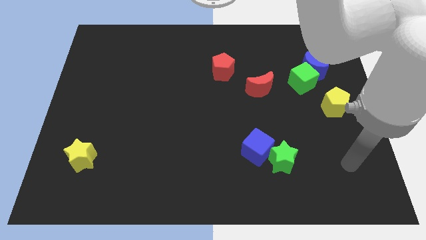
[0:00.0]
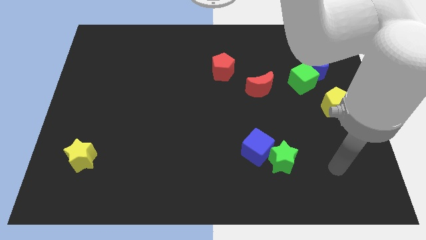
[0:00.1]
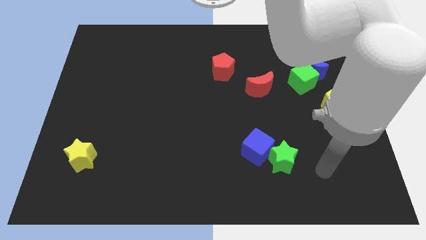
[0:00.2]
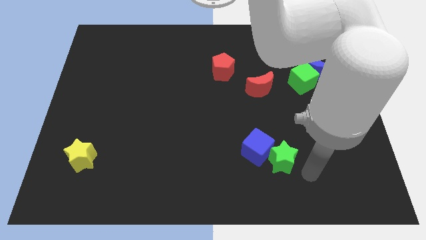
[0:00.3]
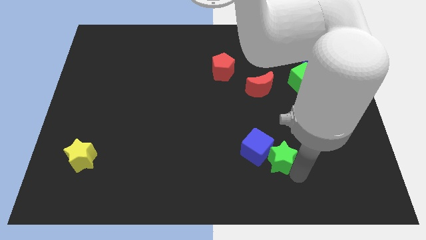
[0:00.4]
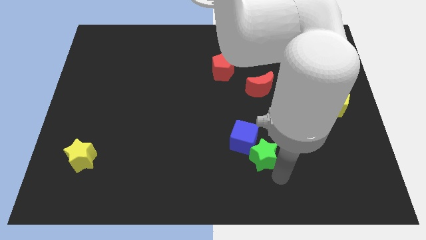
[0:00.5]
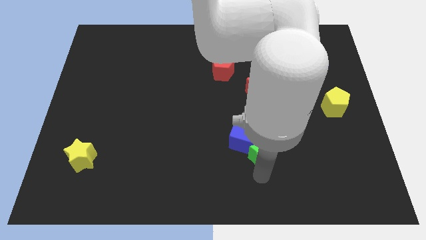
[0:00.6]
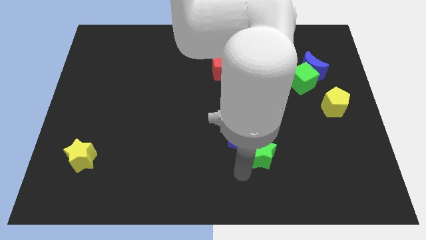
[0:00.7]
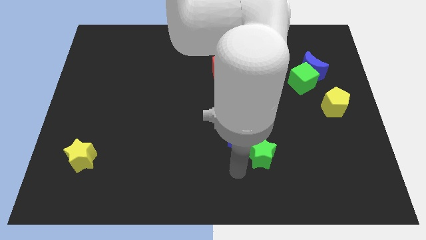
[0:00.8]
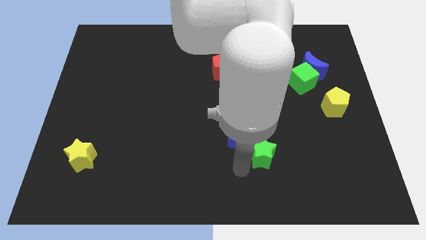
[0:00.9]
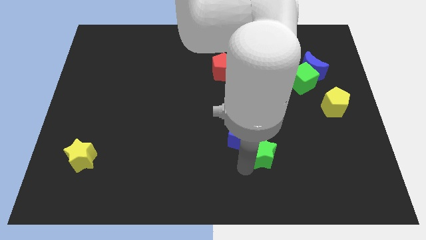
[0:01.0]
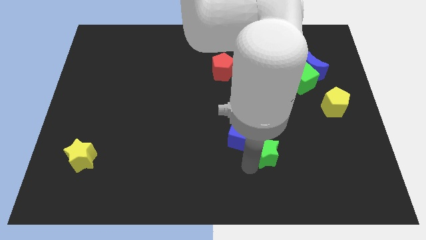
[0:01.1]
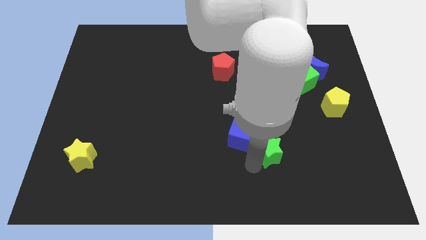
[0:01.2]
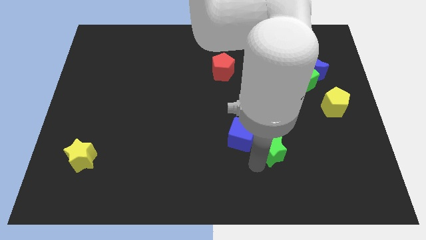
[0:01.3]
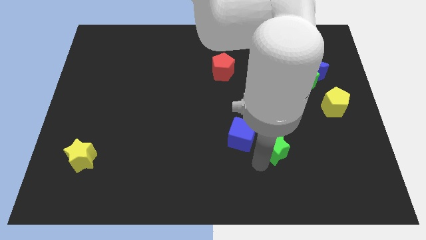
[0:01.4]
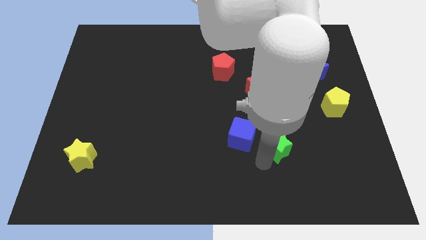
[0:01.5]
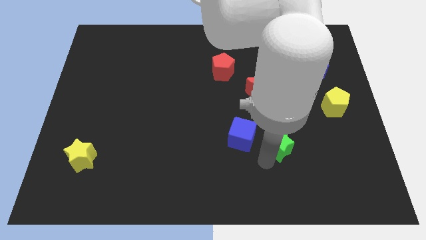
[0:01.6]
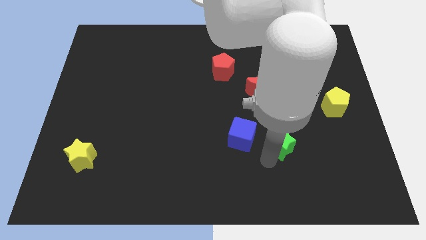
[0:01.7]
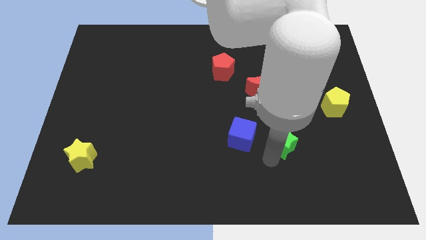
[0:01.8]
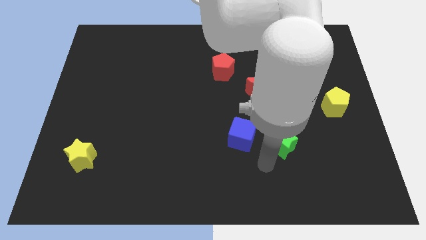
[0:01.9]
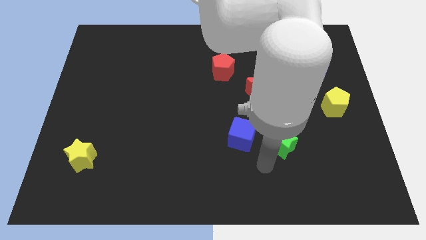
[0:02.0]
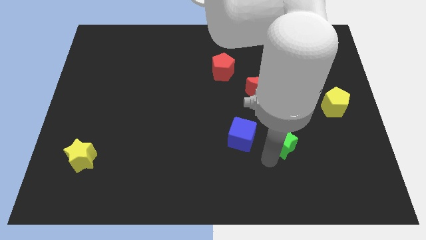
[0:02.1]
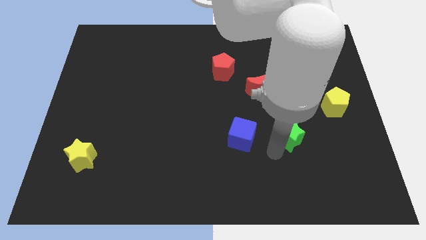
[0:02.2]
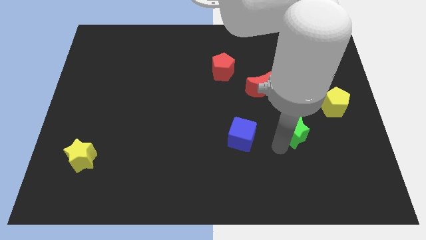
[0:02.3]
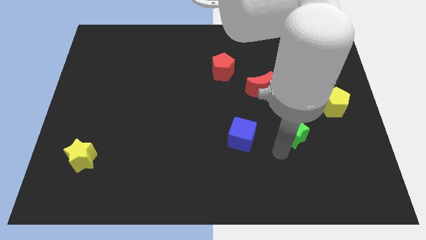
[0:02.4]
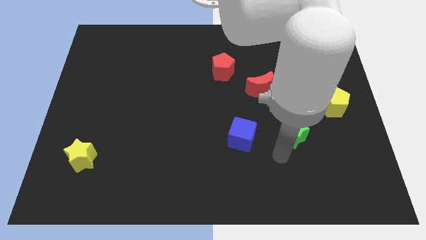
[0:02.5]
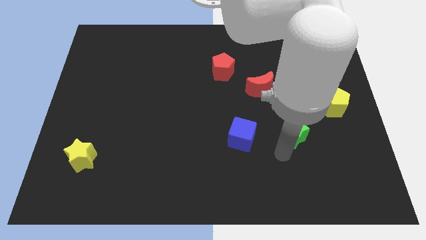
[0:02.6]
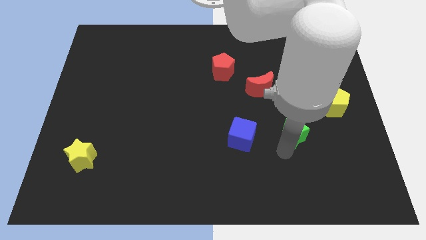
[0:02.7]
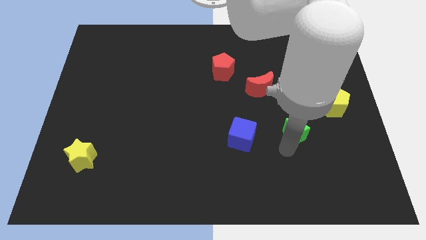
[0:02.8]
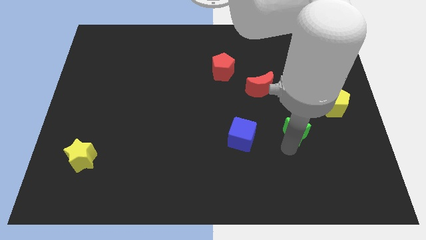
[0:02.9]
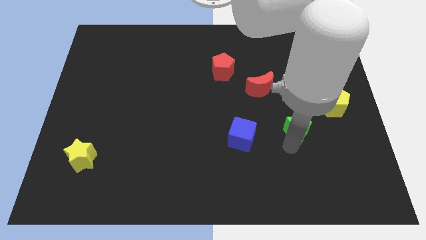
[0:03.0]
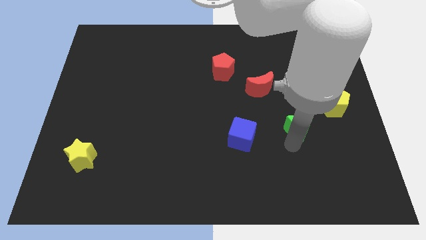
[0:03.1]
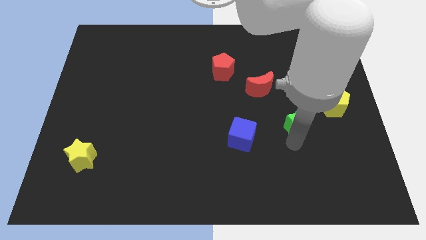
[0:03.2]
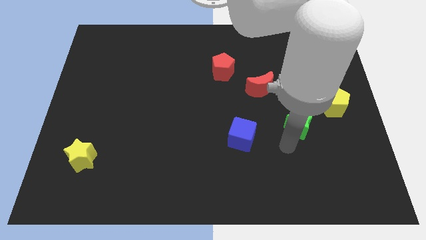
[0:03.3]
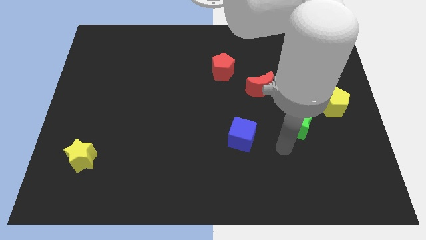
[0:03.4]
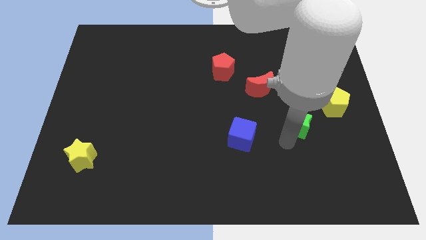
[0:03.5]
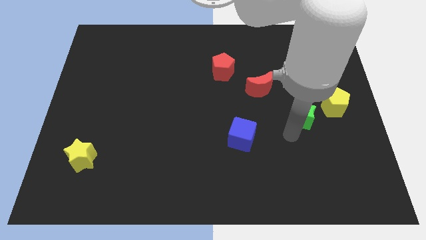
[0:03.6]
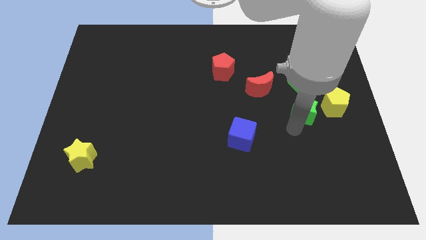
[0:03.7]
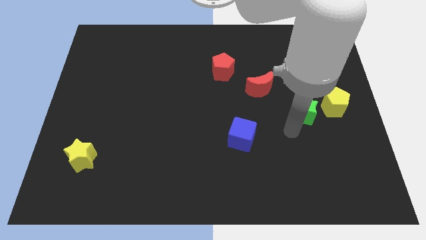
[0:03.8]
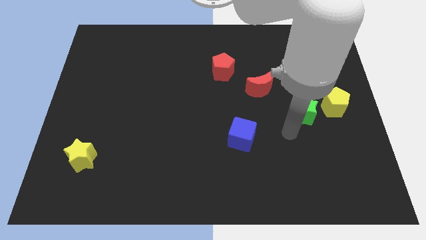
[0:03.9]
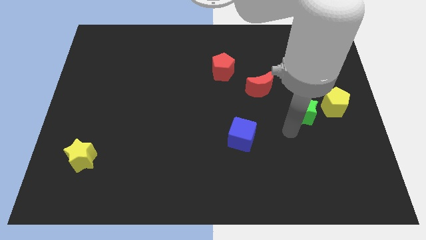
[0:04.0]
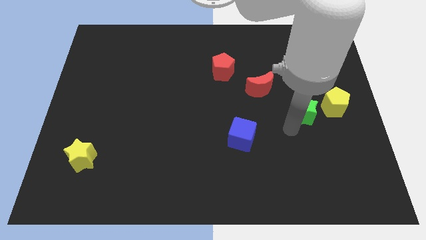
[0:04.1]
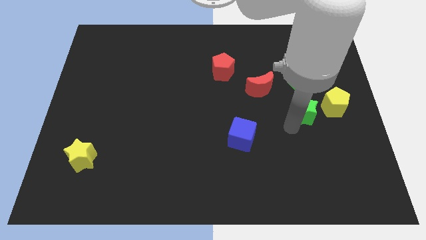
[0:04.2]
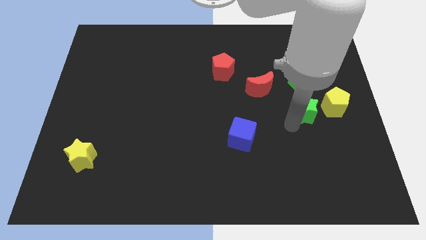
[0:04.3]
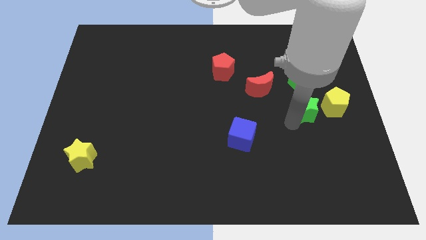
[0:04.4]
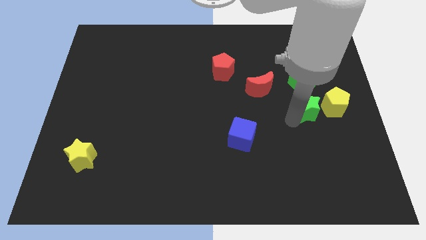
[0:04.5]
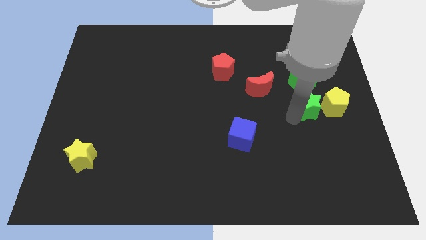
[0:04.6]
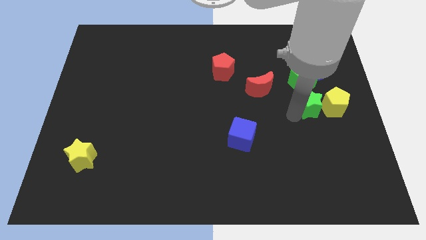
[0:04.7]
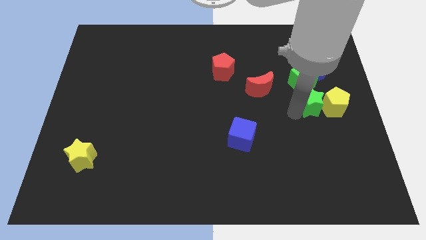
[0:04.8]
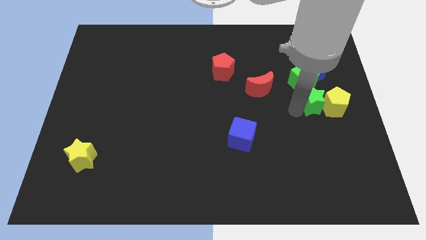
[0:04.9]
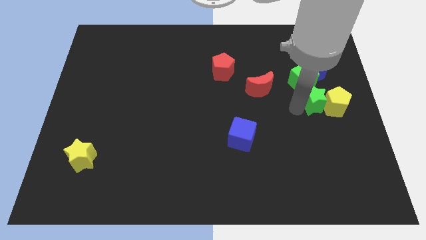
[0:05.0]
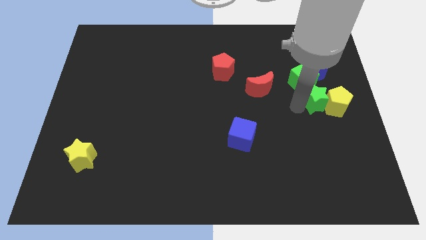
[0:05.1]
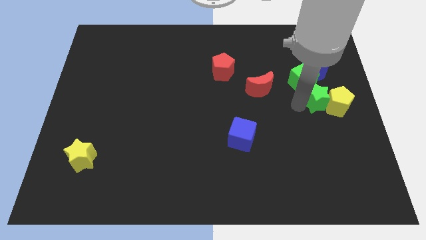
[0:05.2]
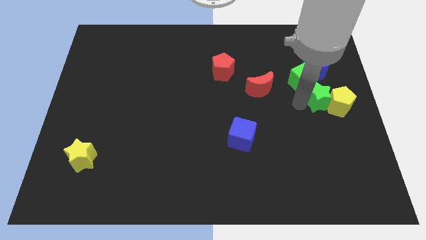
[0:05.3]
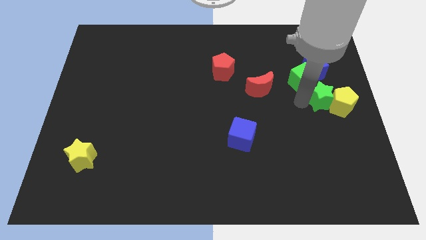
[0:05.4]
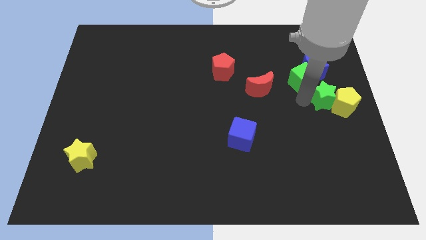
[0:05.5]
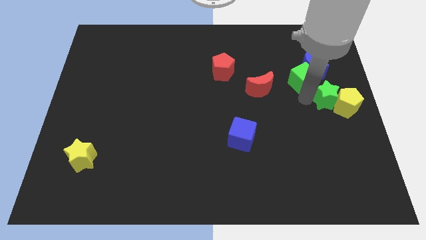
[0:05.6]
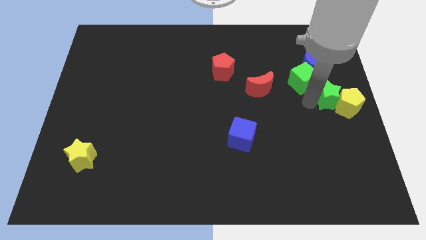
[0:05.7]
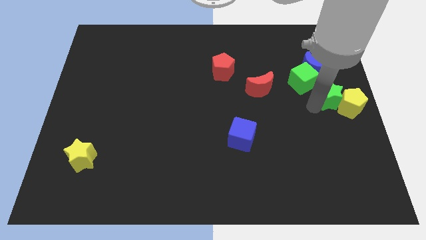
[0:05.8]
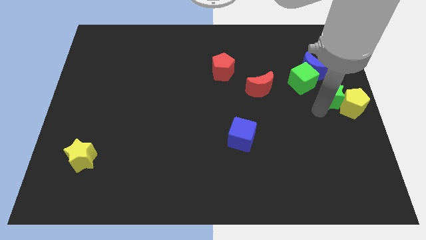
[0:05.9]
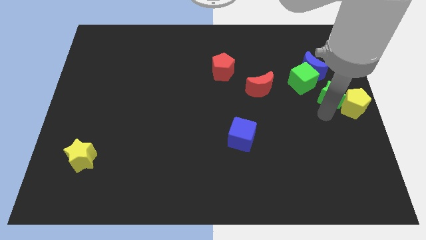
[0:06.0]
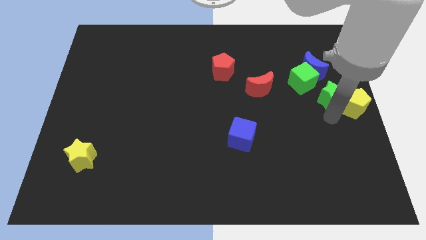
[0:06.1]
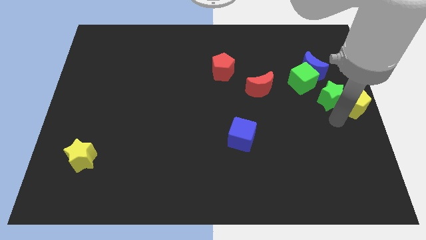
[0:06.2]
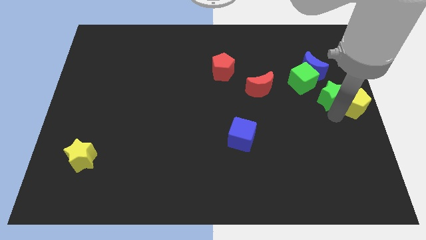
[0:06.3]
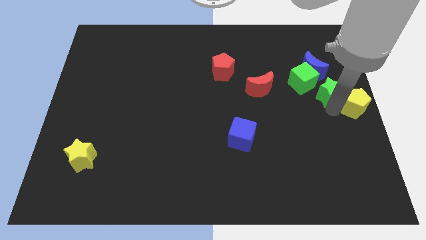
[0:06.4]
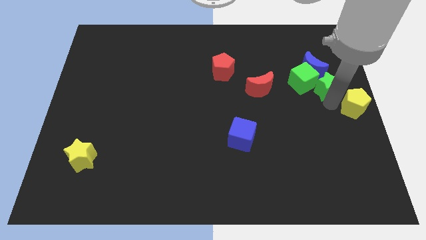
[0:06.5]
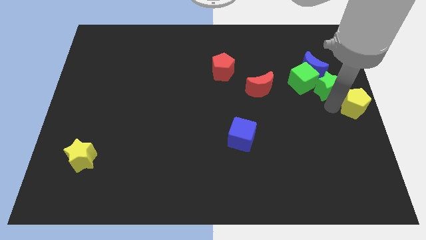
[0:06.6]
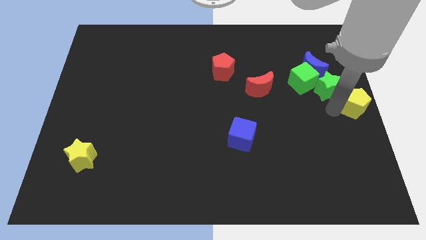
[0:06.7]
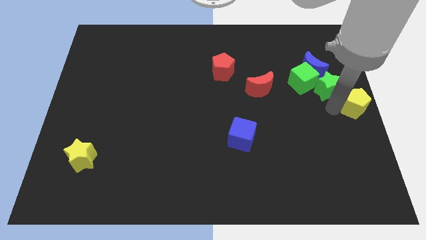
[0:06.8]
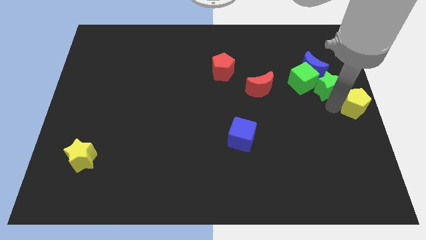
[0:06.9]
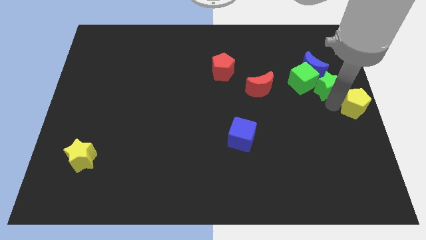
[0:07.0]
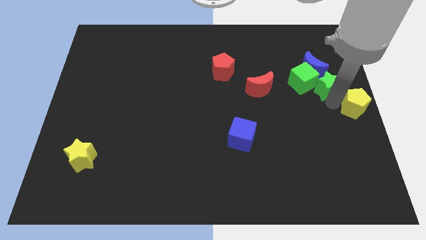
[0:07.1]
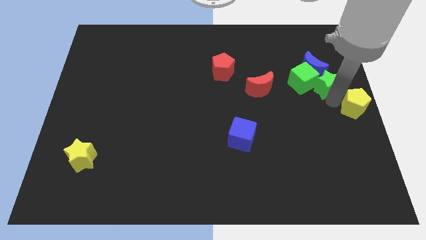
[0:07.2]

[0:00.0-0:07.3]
slide the green star towards the blue moon

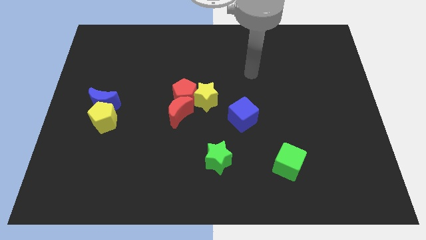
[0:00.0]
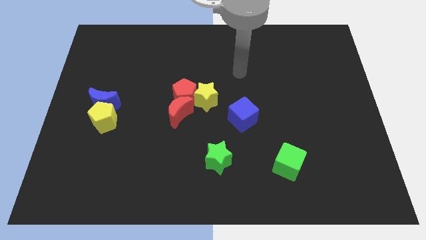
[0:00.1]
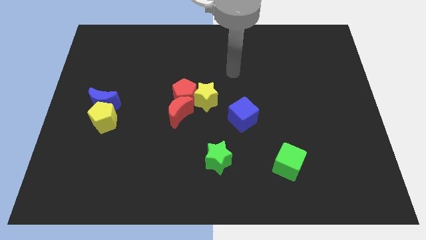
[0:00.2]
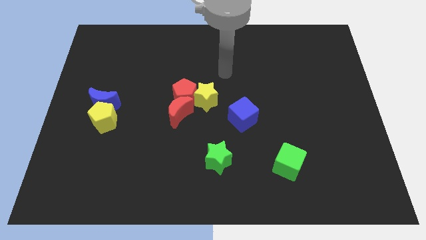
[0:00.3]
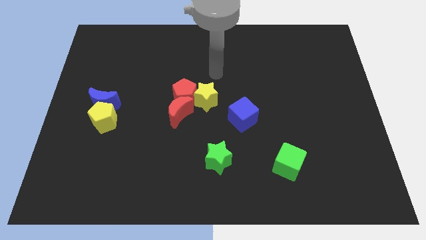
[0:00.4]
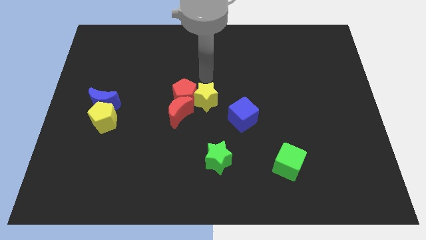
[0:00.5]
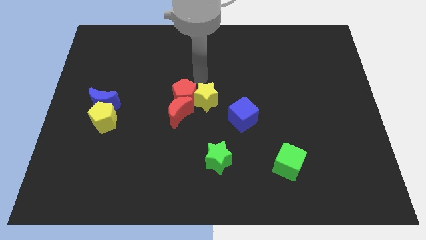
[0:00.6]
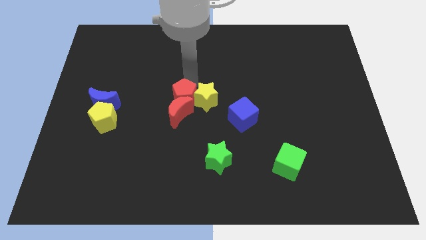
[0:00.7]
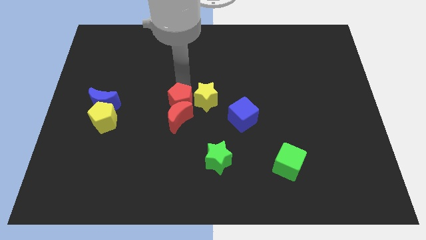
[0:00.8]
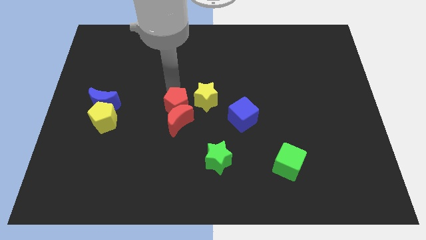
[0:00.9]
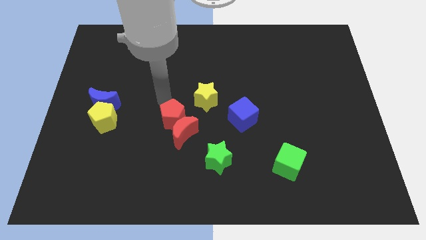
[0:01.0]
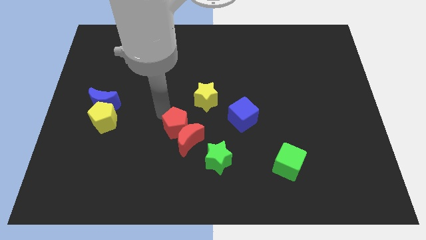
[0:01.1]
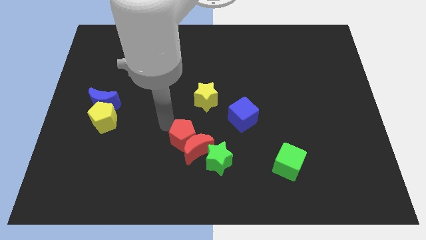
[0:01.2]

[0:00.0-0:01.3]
slide the red moon to the green star
